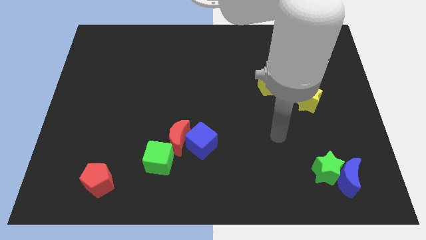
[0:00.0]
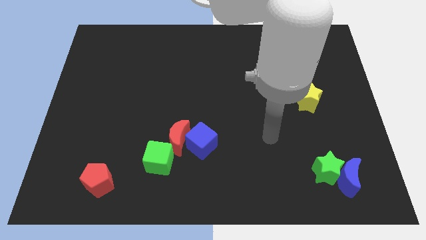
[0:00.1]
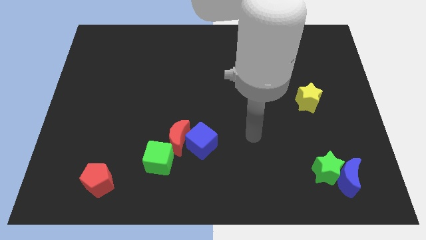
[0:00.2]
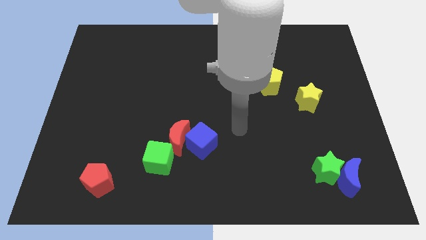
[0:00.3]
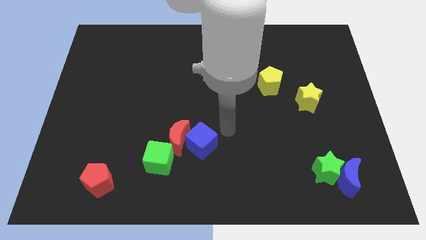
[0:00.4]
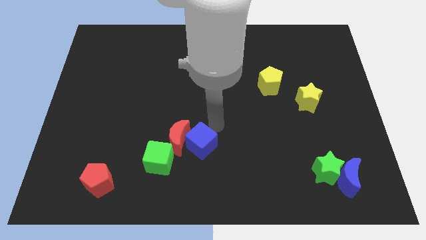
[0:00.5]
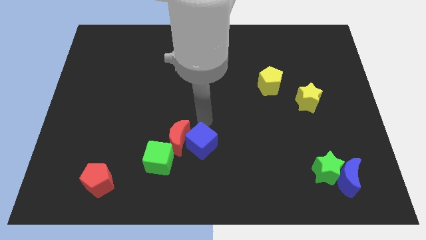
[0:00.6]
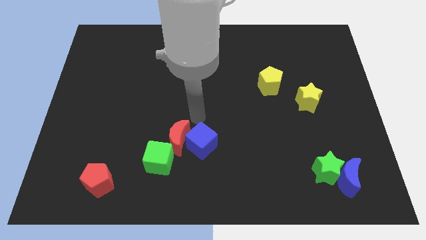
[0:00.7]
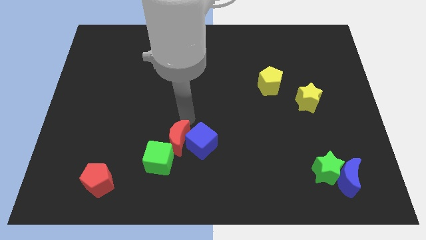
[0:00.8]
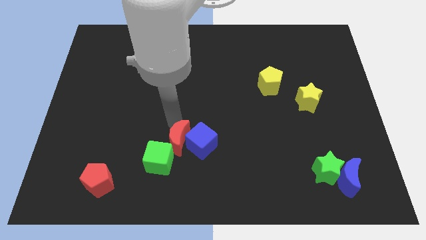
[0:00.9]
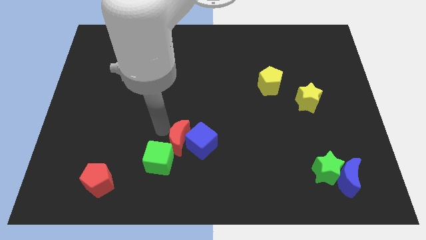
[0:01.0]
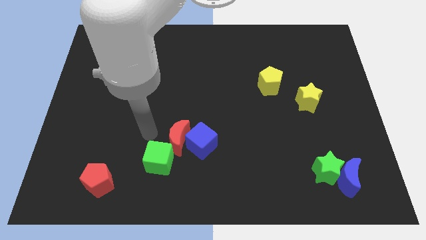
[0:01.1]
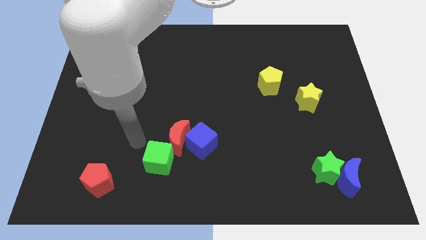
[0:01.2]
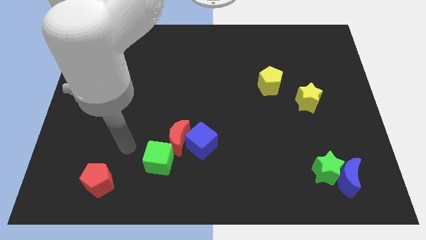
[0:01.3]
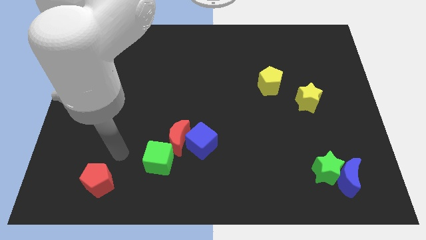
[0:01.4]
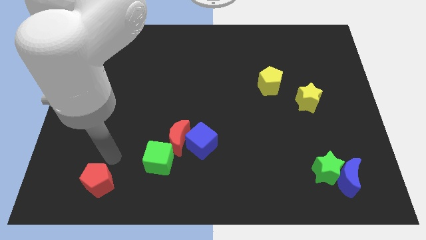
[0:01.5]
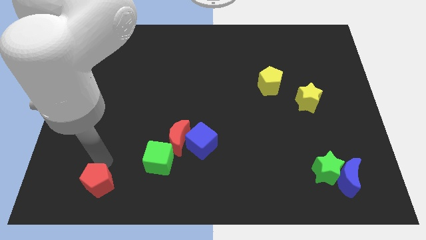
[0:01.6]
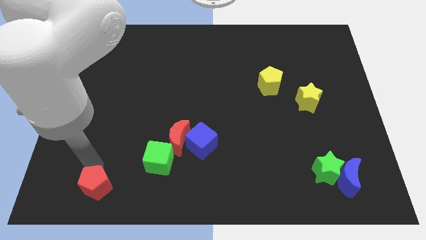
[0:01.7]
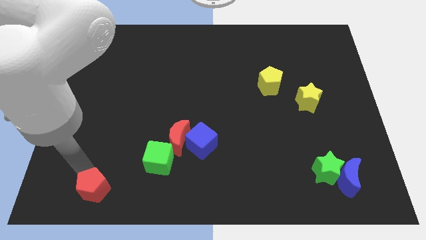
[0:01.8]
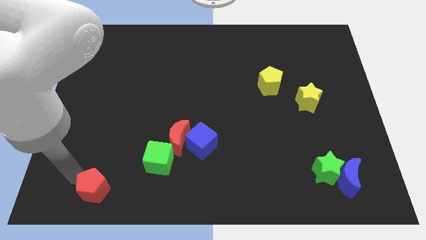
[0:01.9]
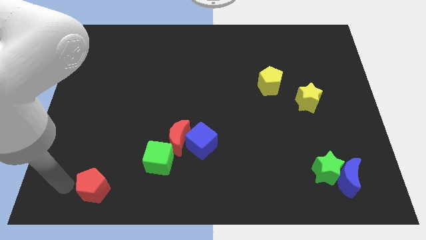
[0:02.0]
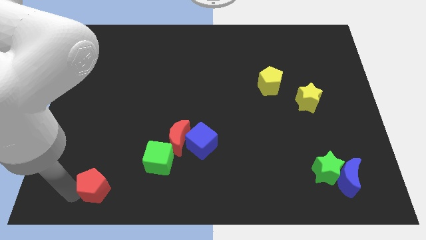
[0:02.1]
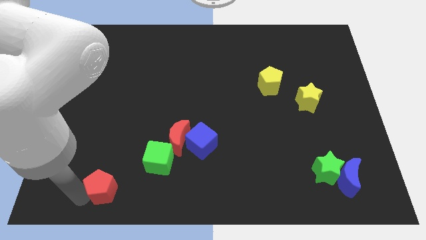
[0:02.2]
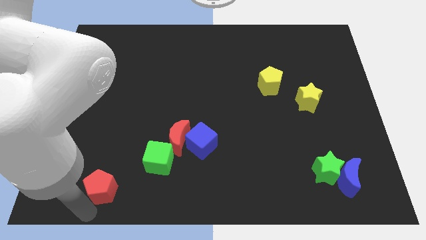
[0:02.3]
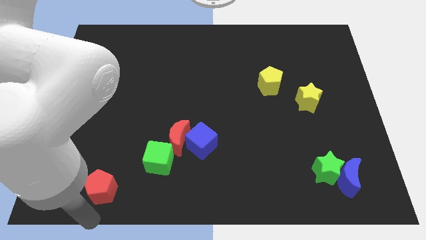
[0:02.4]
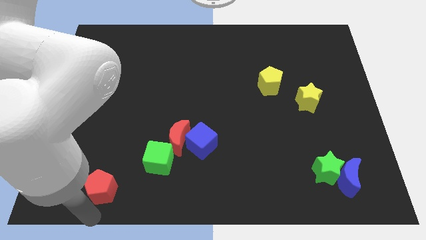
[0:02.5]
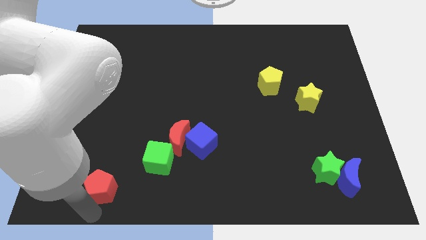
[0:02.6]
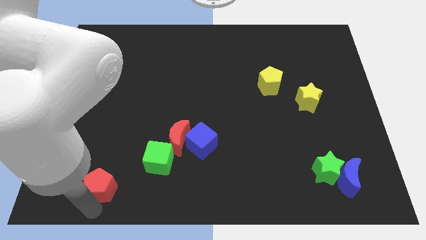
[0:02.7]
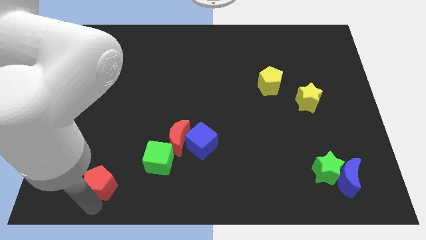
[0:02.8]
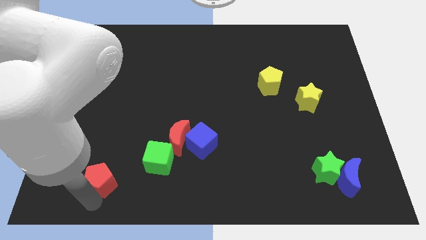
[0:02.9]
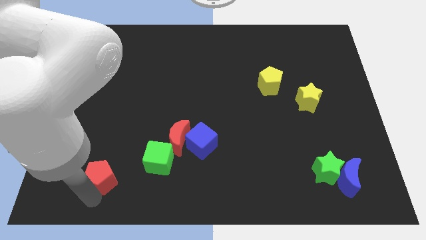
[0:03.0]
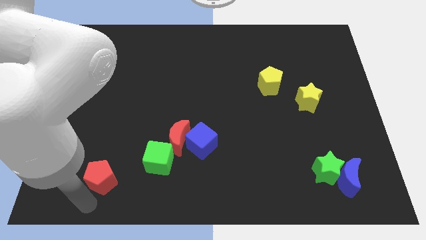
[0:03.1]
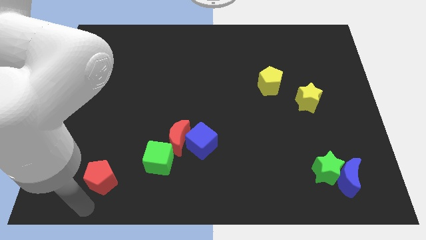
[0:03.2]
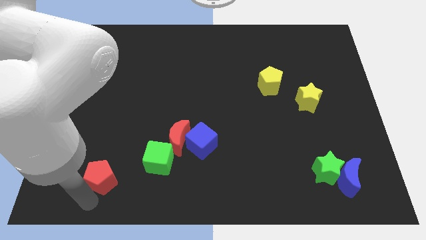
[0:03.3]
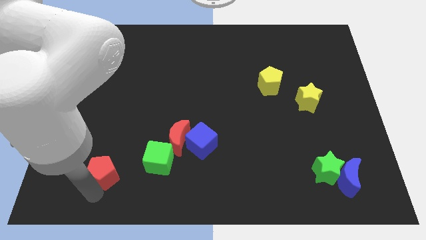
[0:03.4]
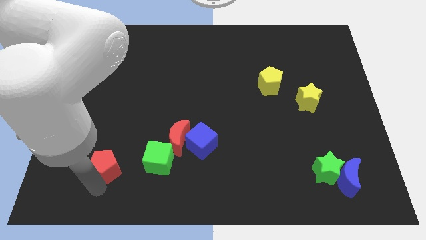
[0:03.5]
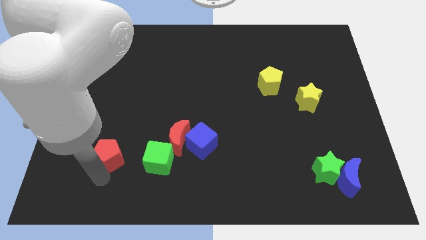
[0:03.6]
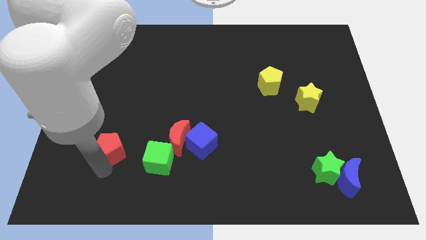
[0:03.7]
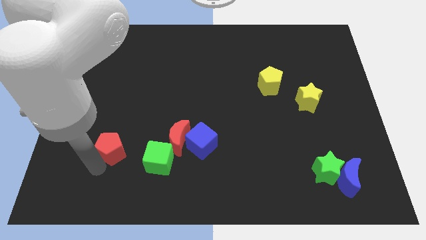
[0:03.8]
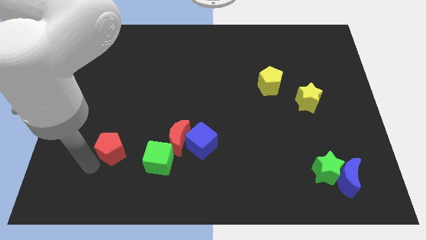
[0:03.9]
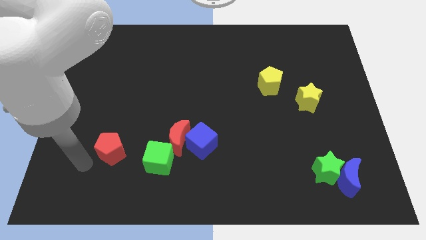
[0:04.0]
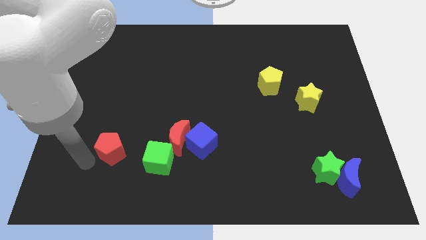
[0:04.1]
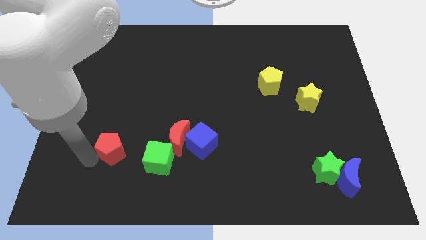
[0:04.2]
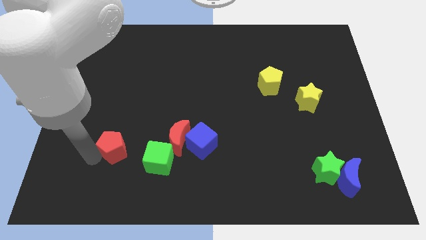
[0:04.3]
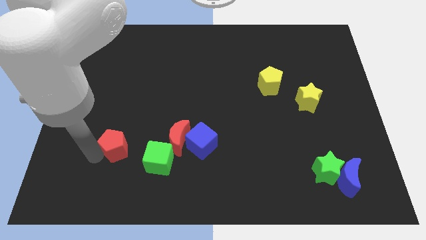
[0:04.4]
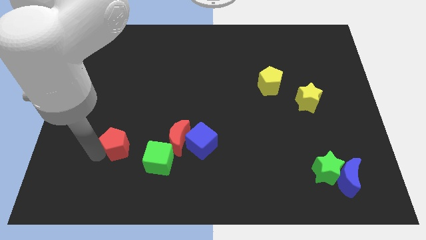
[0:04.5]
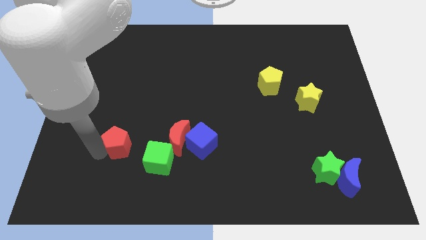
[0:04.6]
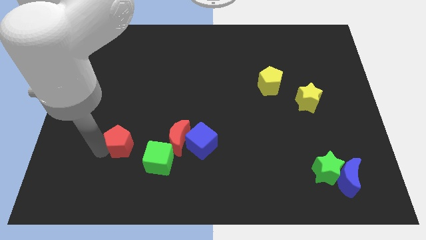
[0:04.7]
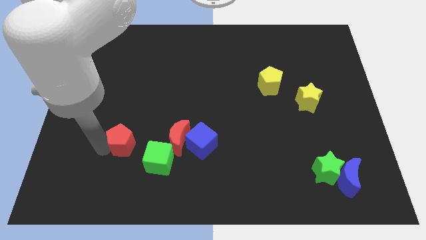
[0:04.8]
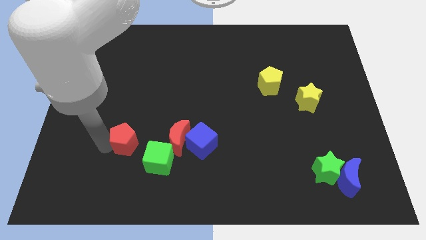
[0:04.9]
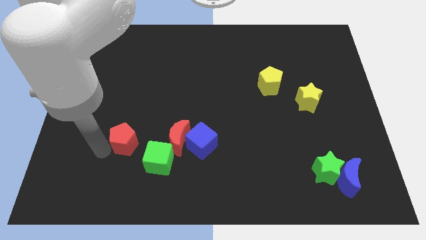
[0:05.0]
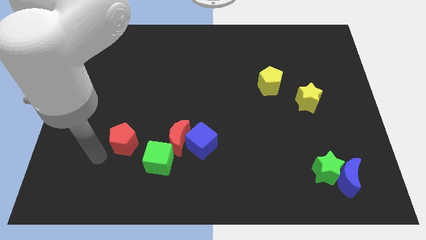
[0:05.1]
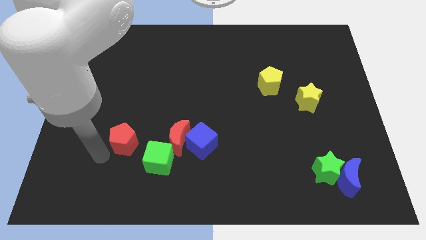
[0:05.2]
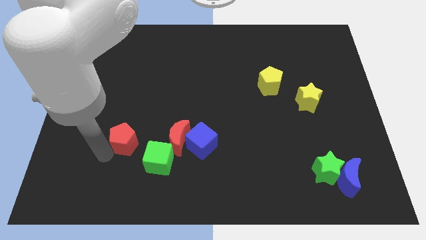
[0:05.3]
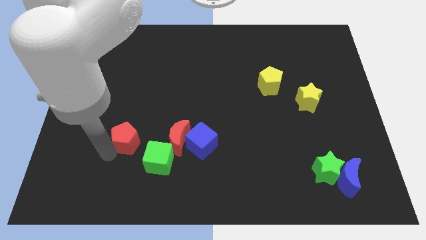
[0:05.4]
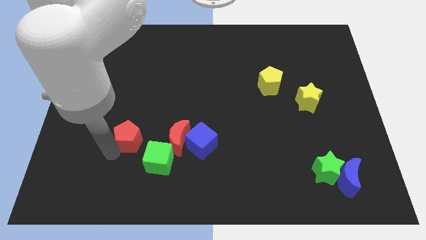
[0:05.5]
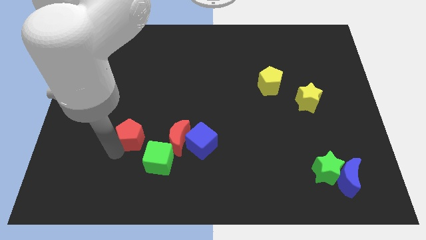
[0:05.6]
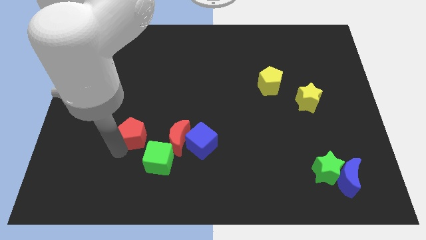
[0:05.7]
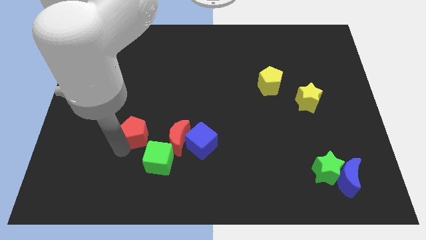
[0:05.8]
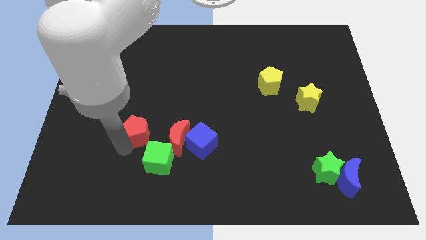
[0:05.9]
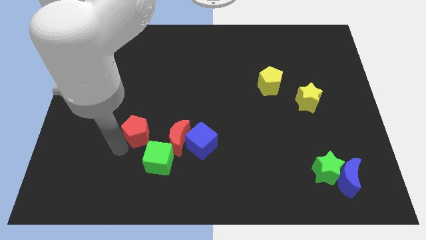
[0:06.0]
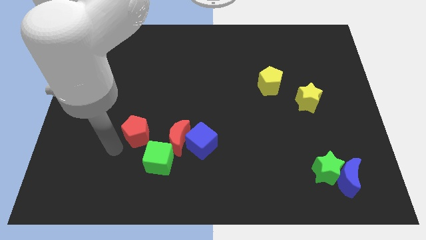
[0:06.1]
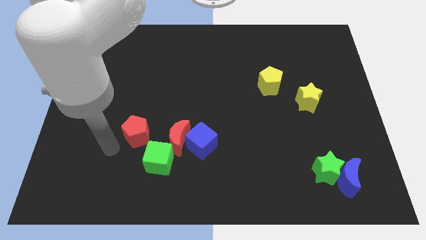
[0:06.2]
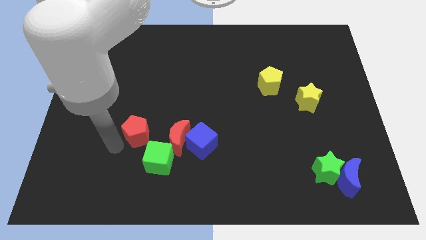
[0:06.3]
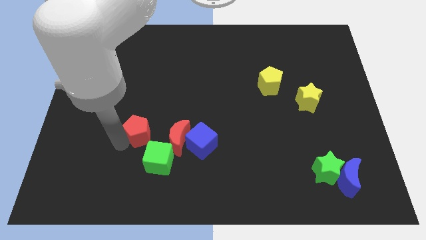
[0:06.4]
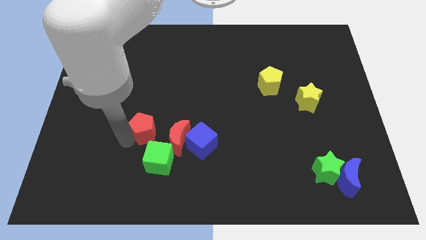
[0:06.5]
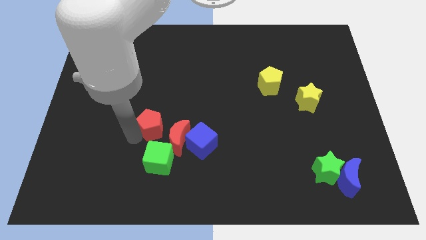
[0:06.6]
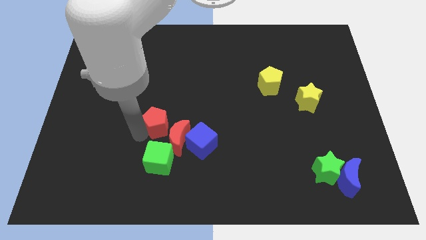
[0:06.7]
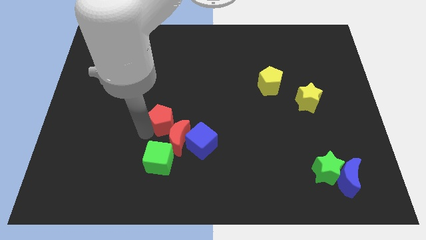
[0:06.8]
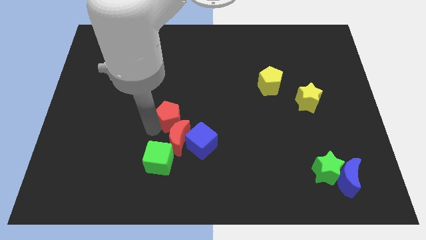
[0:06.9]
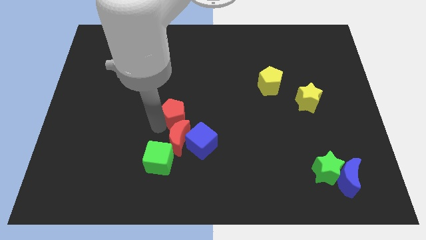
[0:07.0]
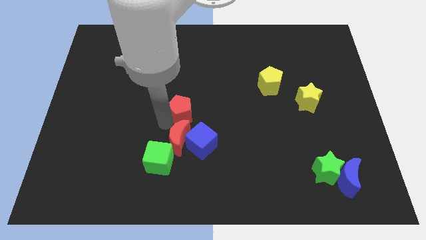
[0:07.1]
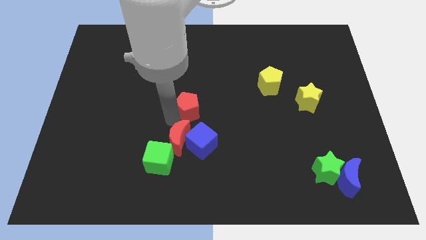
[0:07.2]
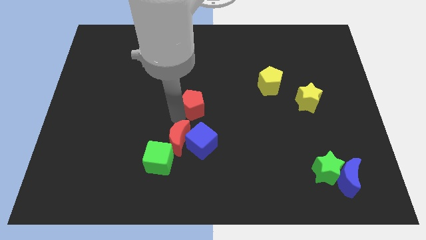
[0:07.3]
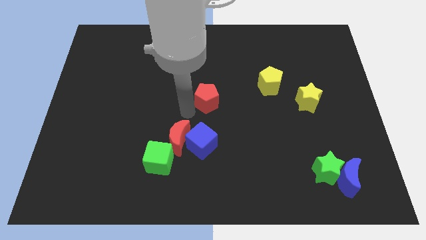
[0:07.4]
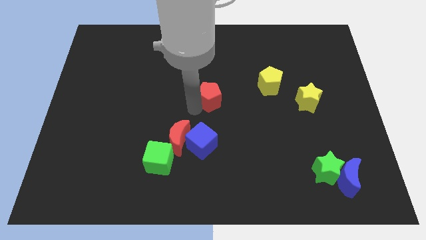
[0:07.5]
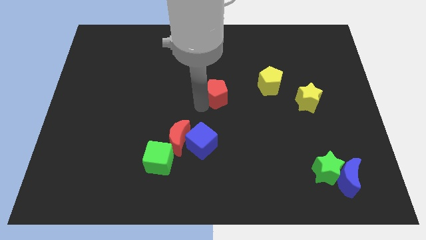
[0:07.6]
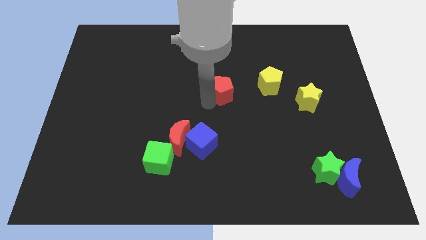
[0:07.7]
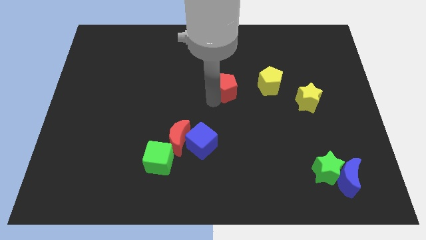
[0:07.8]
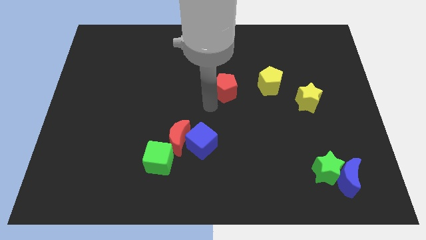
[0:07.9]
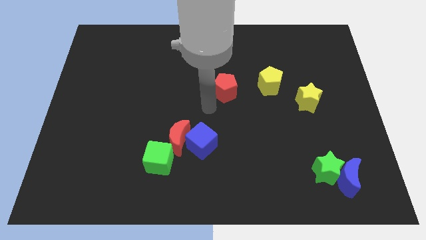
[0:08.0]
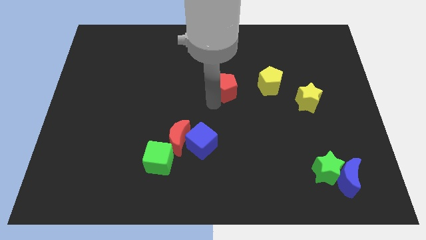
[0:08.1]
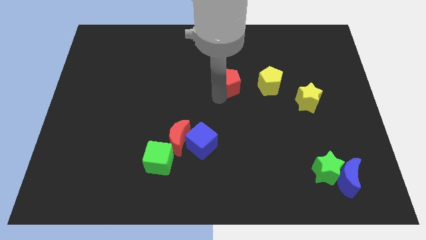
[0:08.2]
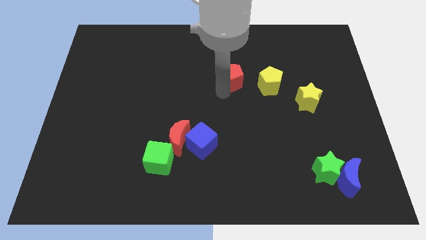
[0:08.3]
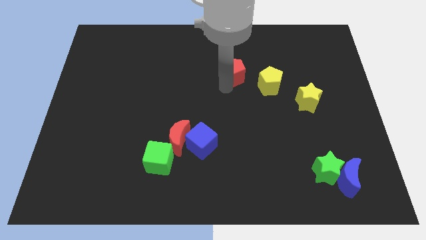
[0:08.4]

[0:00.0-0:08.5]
slide the red pentagon diagonally up and to the left of the yellow pentagon
